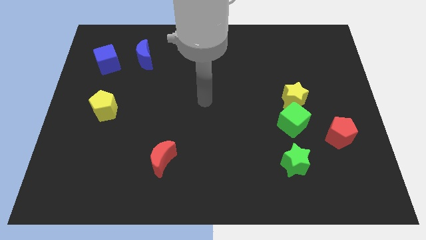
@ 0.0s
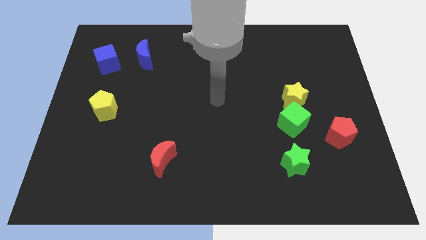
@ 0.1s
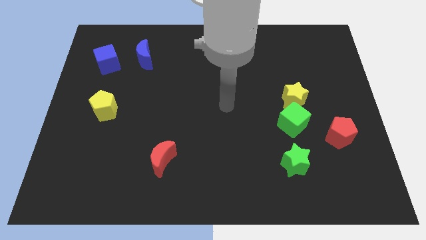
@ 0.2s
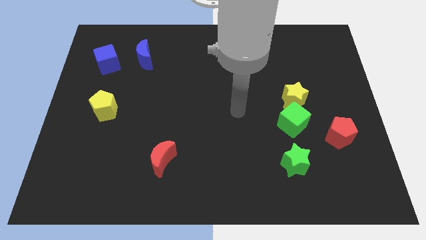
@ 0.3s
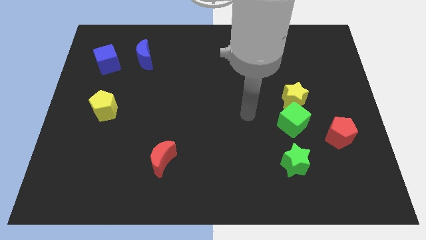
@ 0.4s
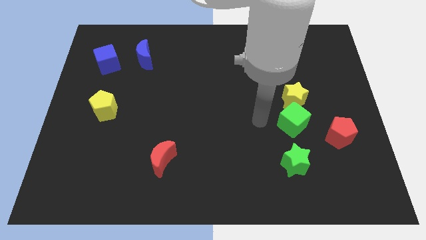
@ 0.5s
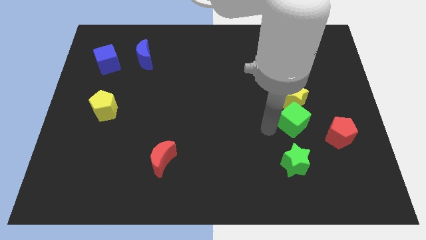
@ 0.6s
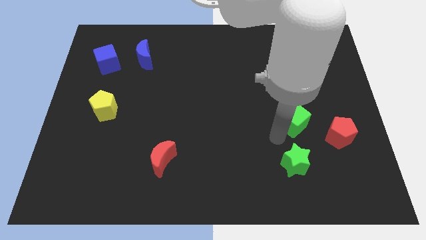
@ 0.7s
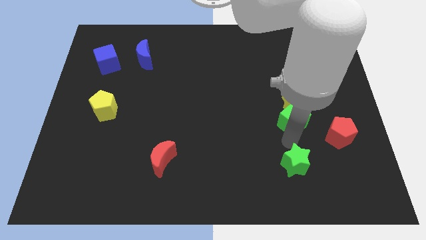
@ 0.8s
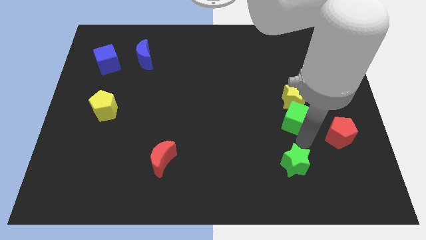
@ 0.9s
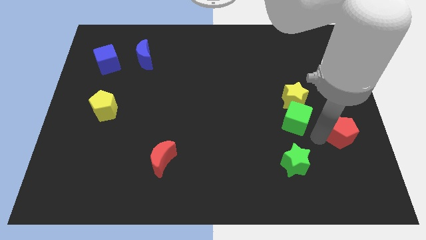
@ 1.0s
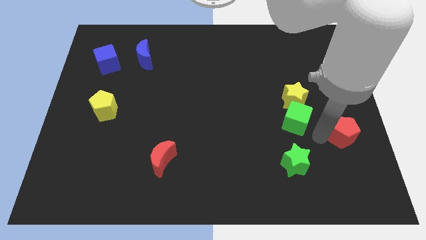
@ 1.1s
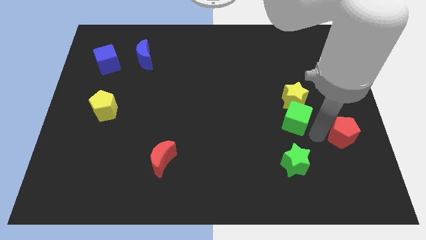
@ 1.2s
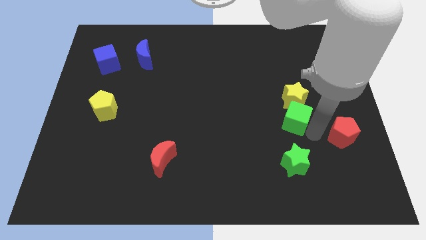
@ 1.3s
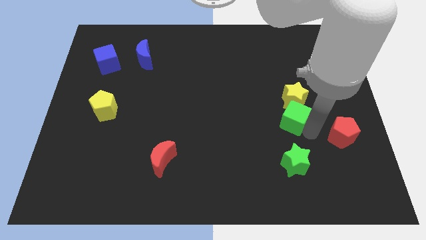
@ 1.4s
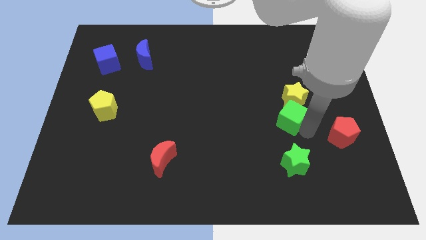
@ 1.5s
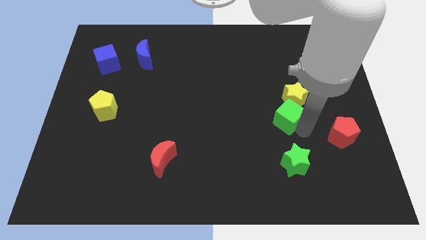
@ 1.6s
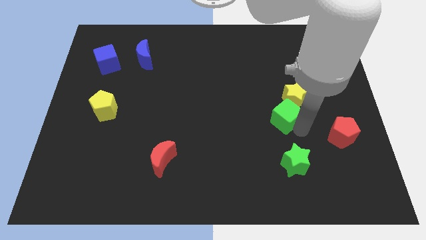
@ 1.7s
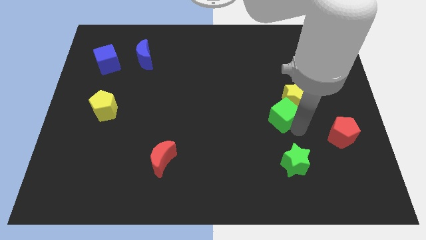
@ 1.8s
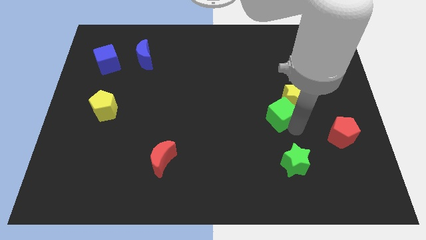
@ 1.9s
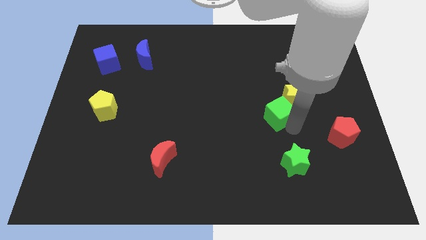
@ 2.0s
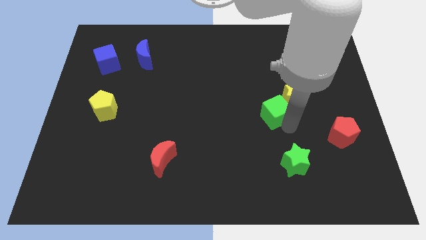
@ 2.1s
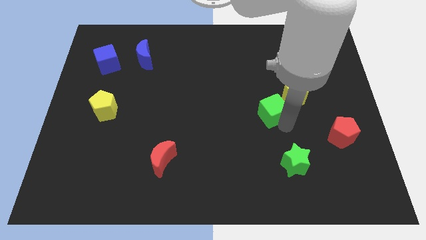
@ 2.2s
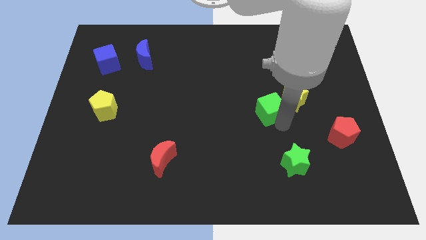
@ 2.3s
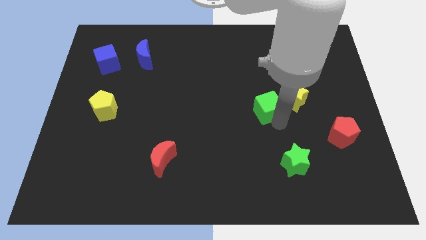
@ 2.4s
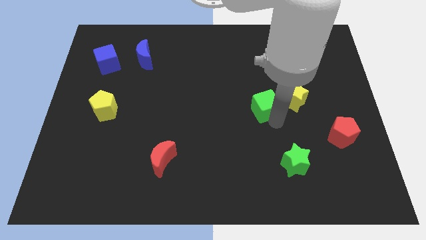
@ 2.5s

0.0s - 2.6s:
move the green cube up and then left slightly

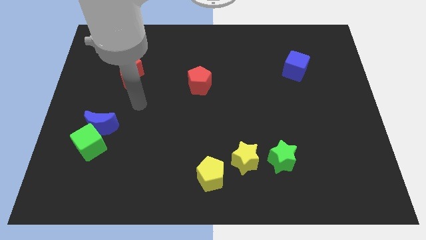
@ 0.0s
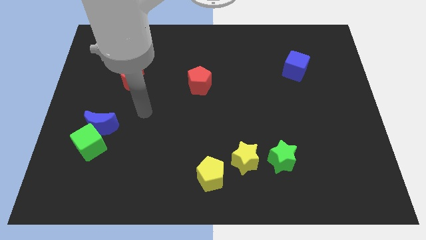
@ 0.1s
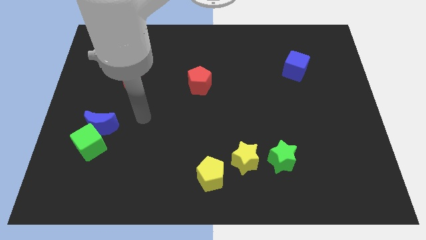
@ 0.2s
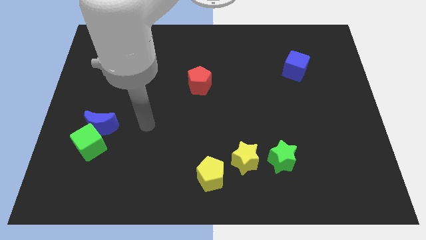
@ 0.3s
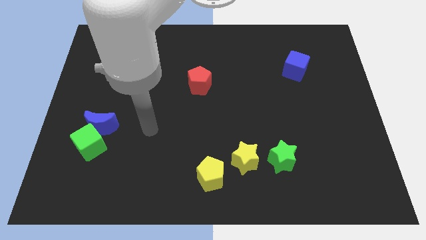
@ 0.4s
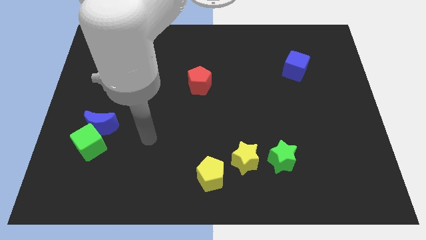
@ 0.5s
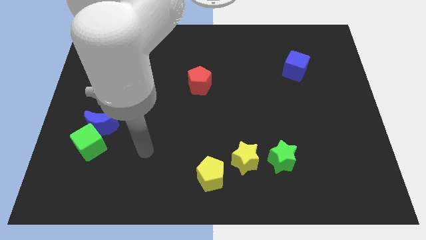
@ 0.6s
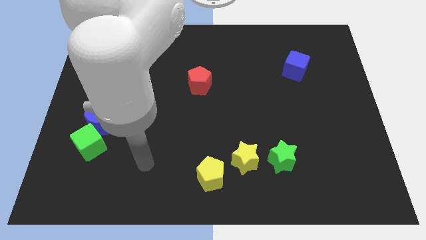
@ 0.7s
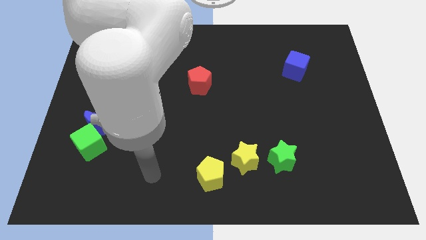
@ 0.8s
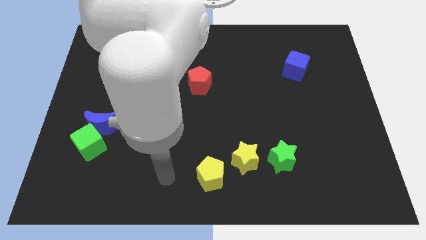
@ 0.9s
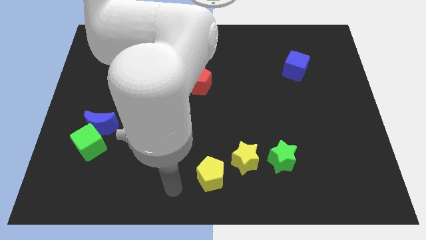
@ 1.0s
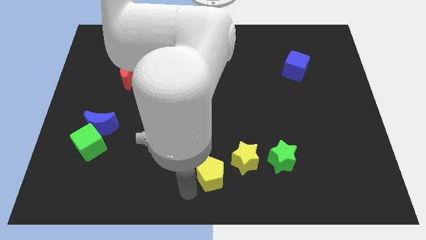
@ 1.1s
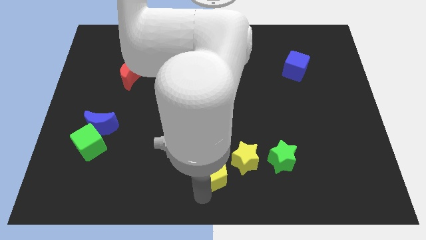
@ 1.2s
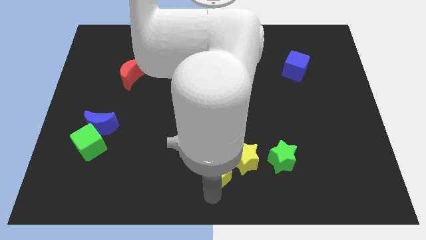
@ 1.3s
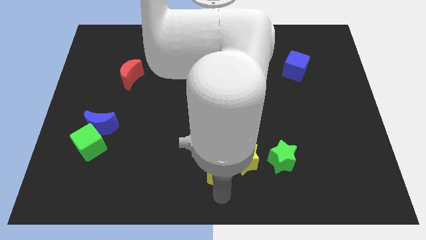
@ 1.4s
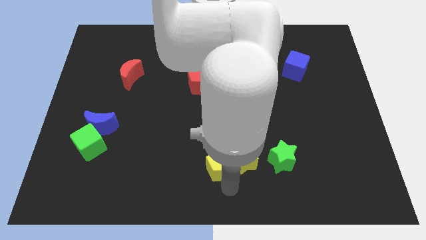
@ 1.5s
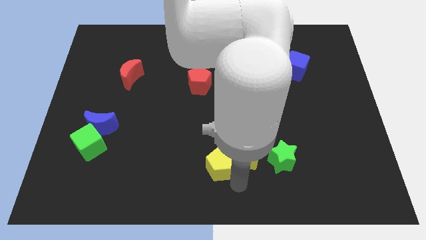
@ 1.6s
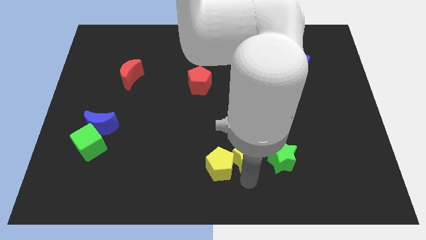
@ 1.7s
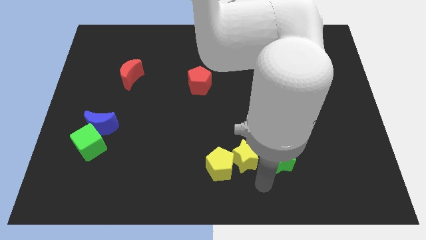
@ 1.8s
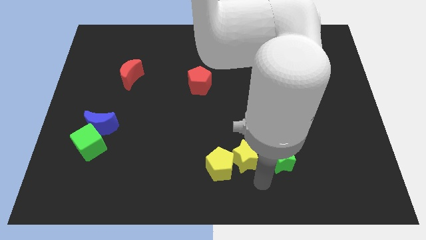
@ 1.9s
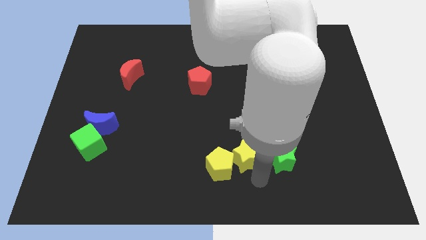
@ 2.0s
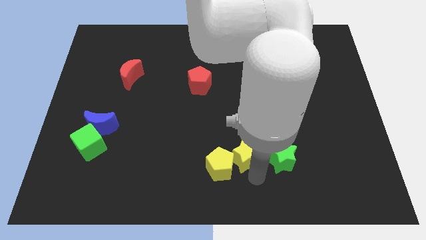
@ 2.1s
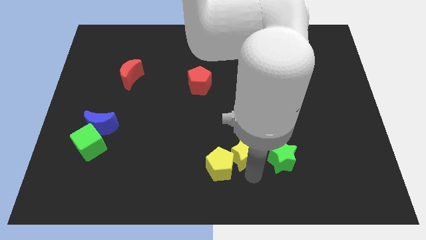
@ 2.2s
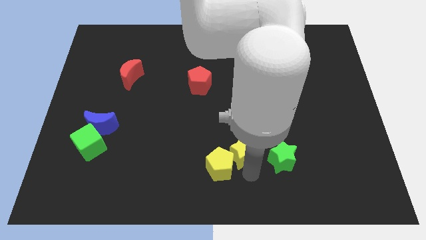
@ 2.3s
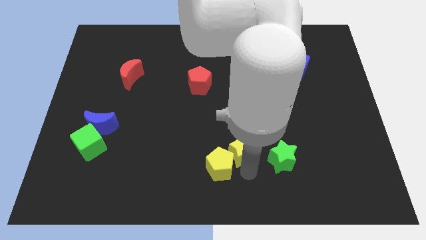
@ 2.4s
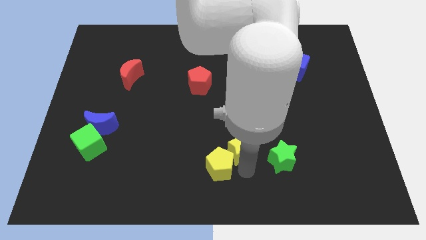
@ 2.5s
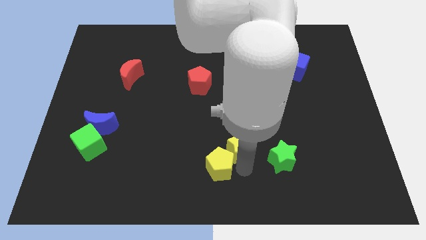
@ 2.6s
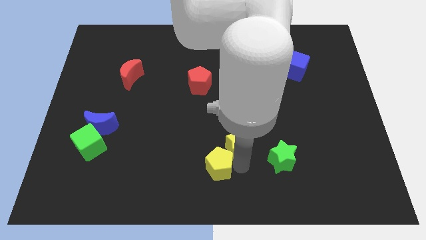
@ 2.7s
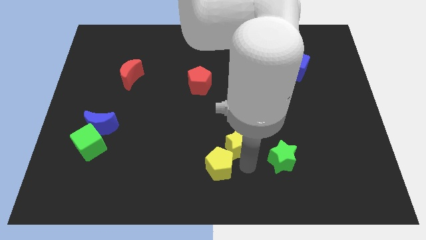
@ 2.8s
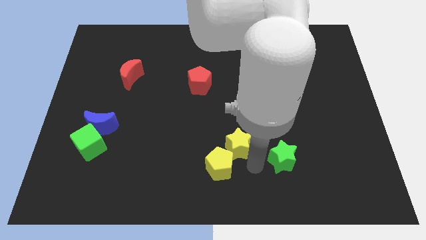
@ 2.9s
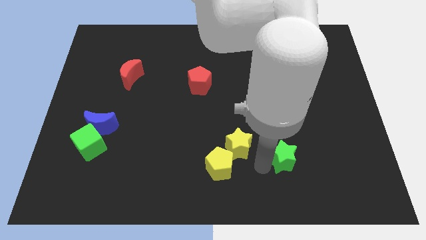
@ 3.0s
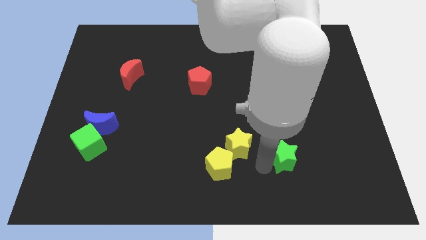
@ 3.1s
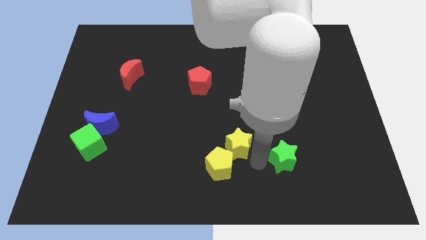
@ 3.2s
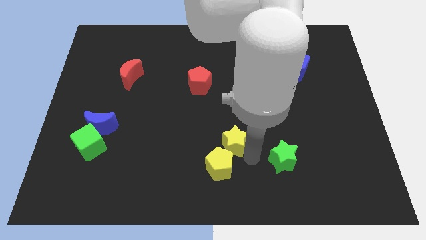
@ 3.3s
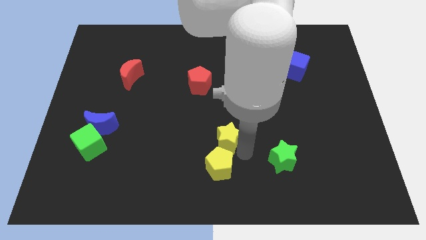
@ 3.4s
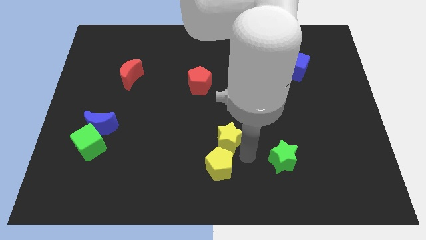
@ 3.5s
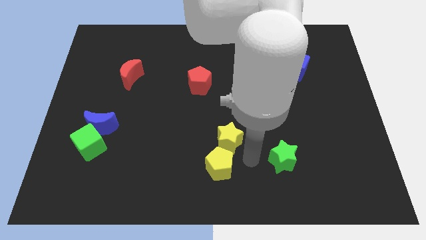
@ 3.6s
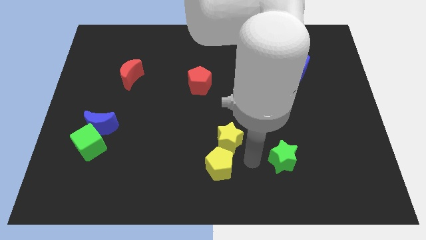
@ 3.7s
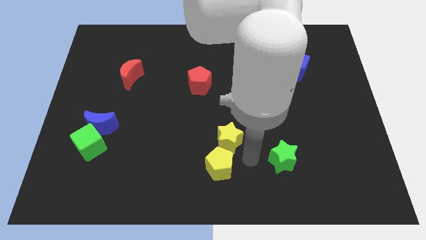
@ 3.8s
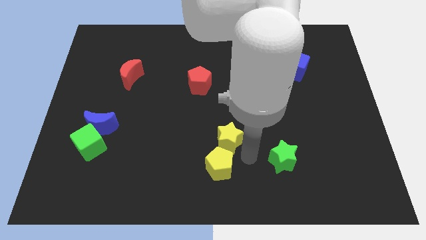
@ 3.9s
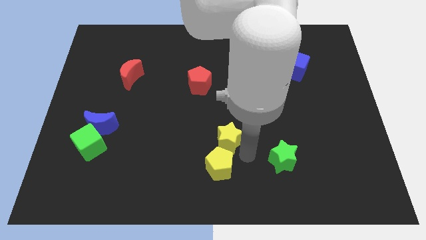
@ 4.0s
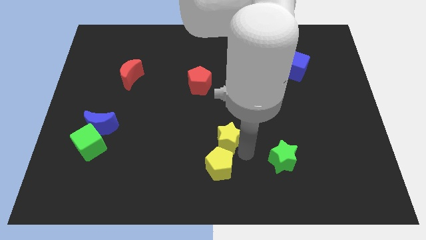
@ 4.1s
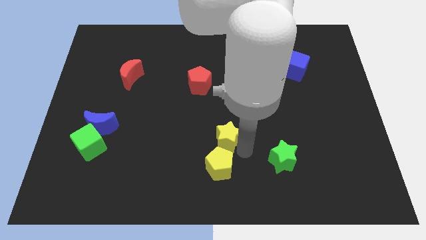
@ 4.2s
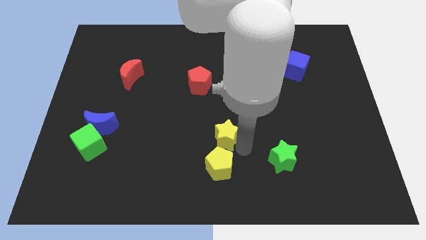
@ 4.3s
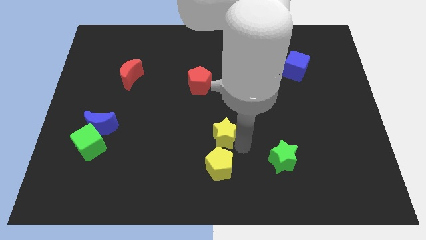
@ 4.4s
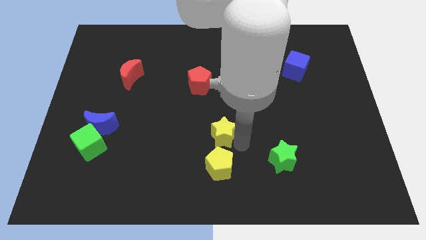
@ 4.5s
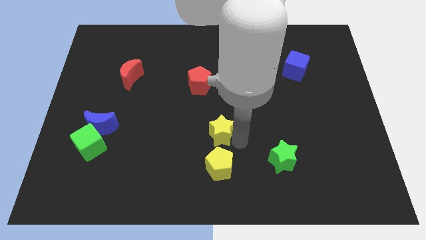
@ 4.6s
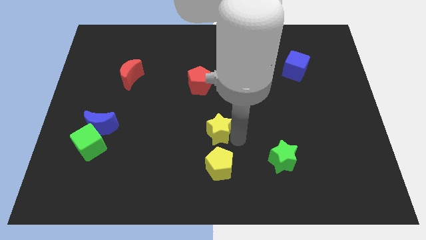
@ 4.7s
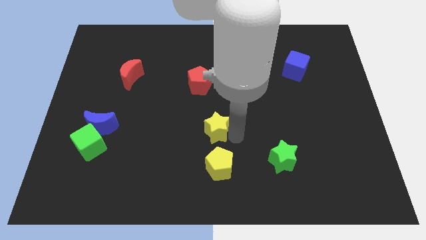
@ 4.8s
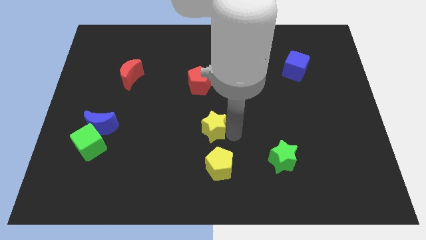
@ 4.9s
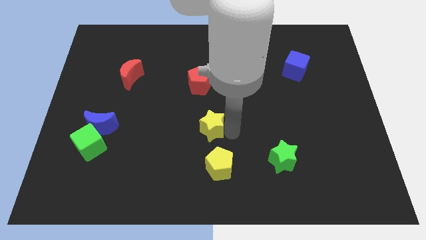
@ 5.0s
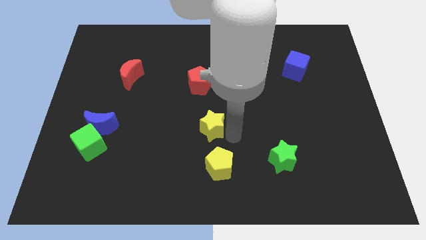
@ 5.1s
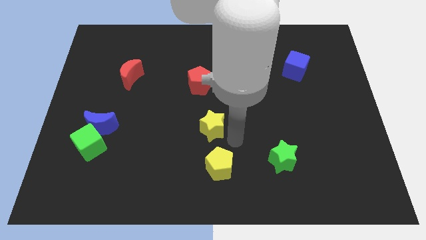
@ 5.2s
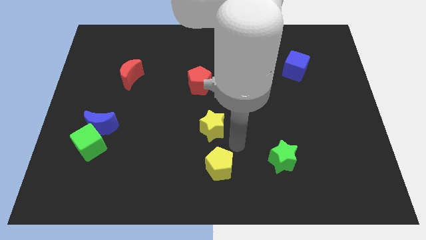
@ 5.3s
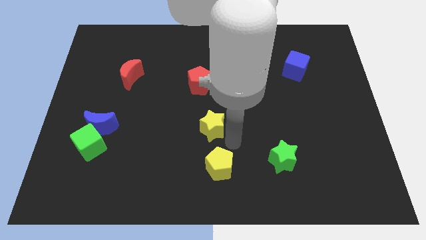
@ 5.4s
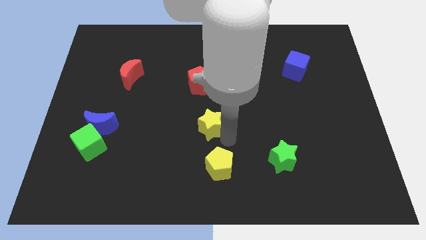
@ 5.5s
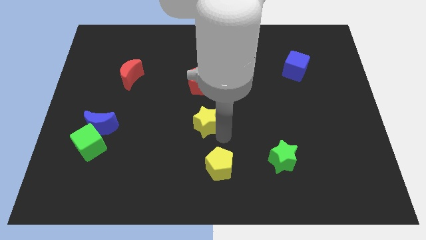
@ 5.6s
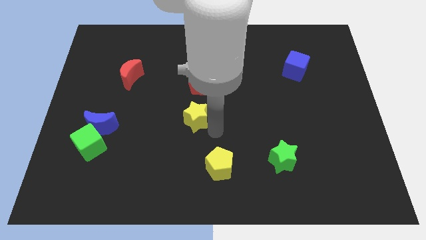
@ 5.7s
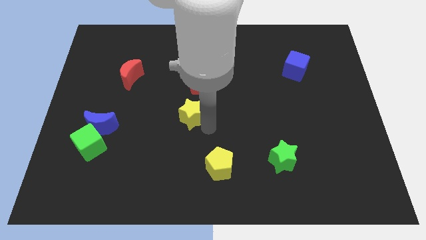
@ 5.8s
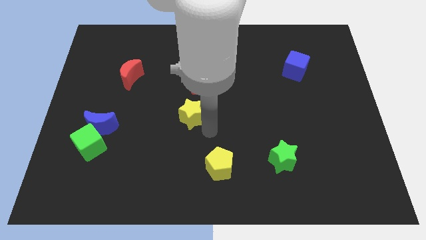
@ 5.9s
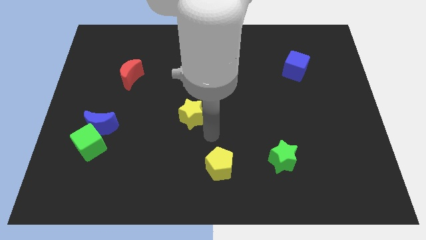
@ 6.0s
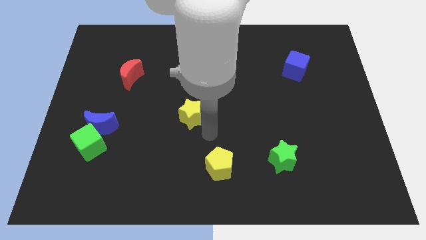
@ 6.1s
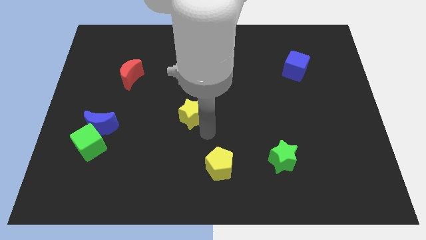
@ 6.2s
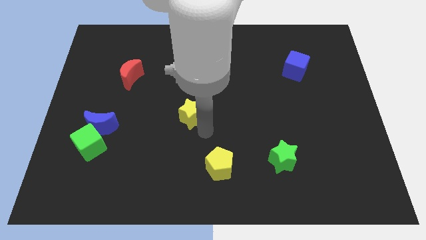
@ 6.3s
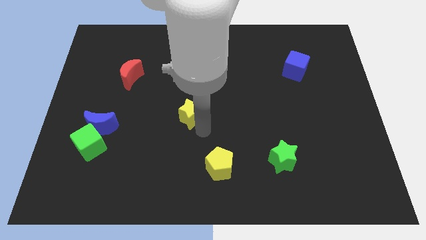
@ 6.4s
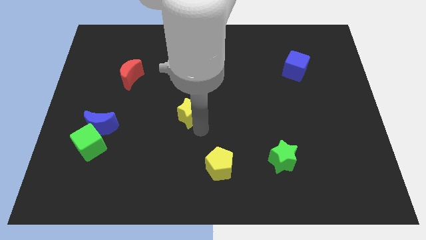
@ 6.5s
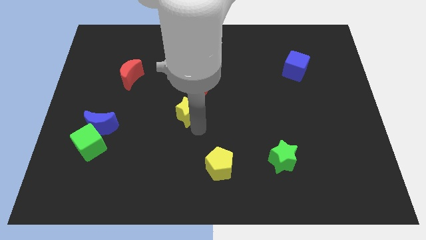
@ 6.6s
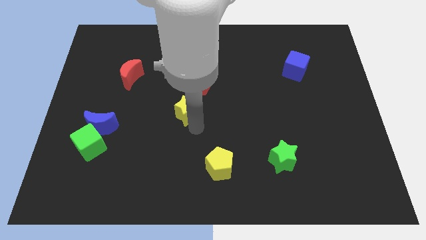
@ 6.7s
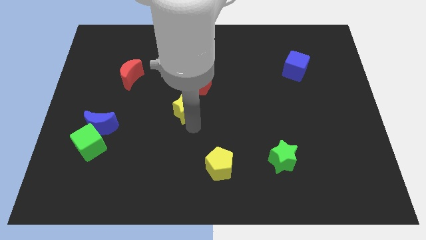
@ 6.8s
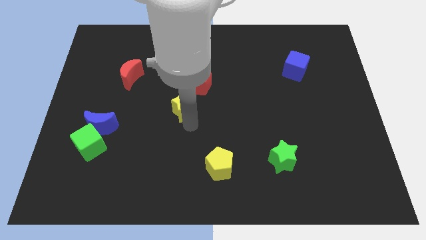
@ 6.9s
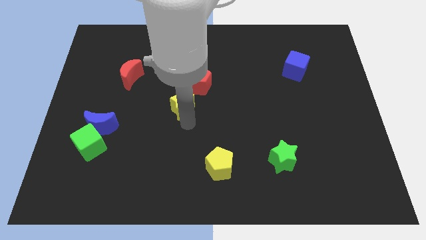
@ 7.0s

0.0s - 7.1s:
slide the yellow star upwards and left diagonally
